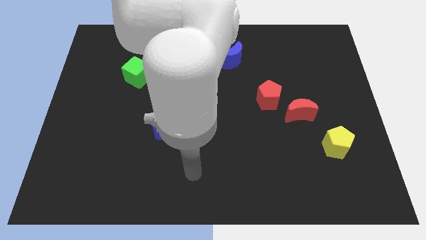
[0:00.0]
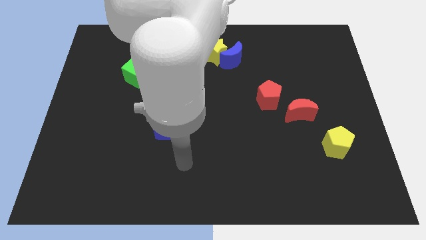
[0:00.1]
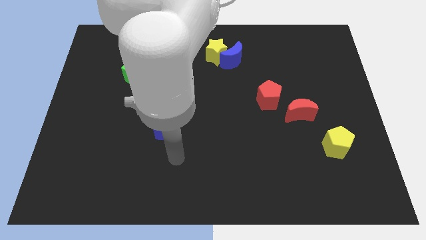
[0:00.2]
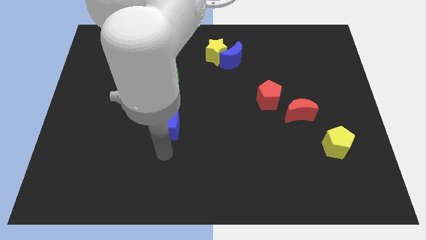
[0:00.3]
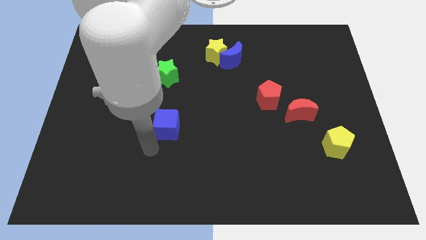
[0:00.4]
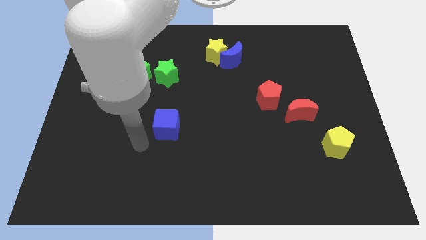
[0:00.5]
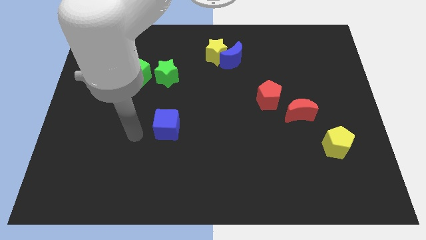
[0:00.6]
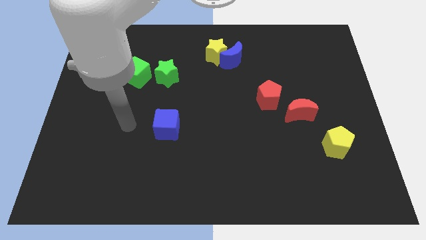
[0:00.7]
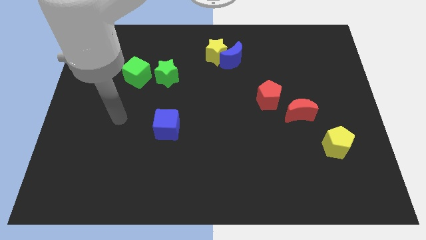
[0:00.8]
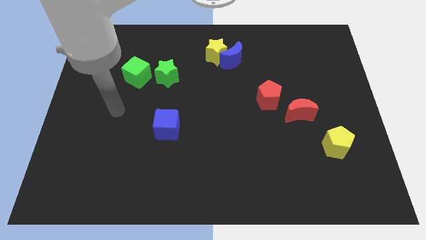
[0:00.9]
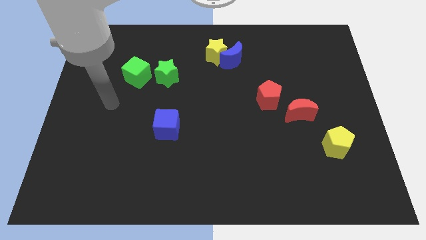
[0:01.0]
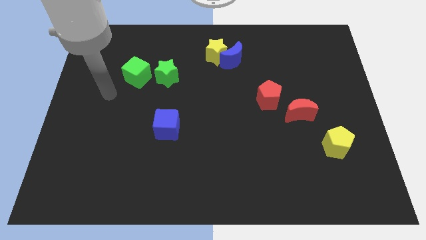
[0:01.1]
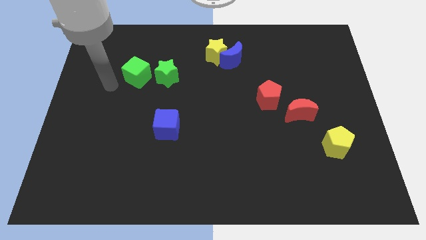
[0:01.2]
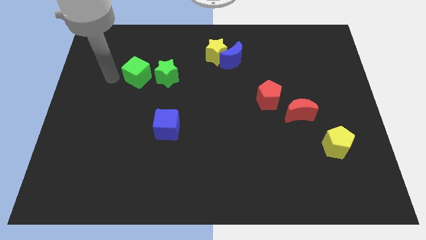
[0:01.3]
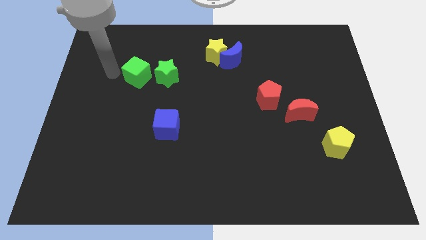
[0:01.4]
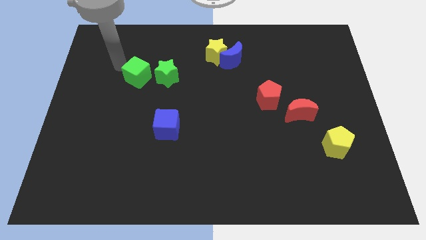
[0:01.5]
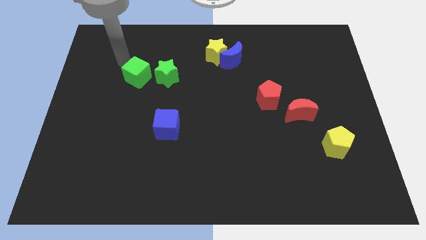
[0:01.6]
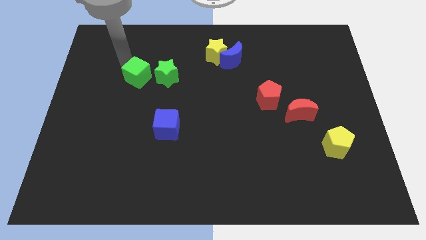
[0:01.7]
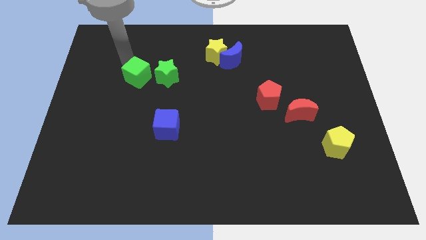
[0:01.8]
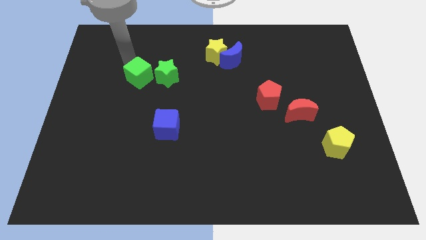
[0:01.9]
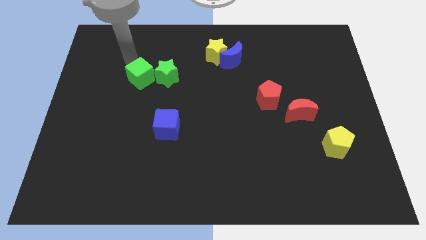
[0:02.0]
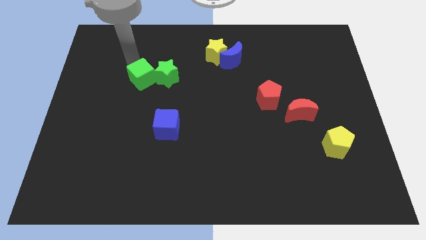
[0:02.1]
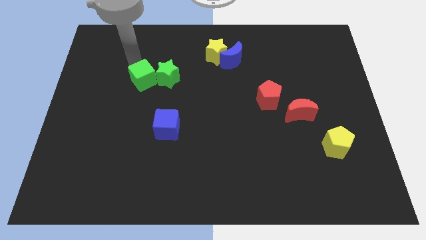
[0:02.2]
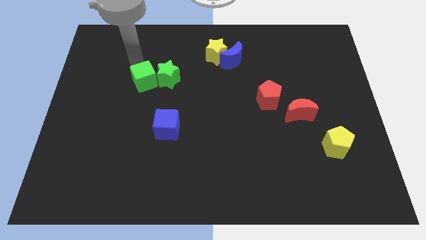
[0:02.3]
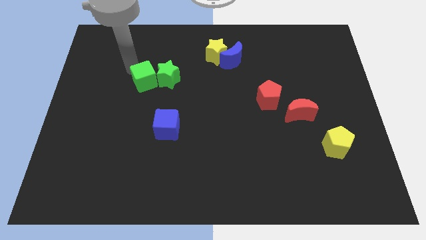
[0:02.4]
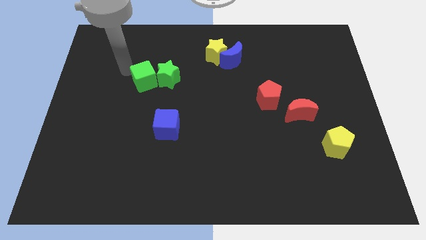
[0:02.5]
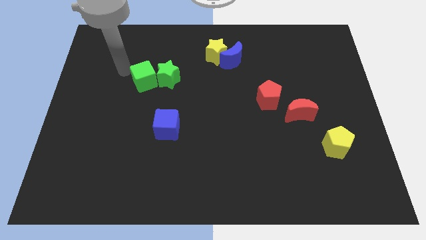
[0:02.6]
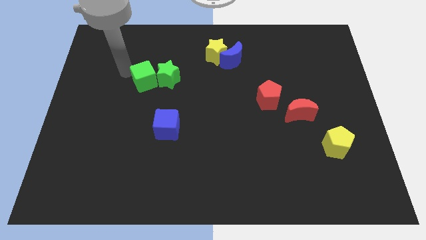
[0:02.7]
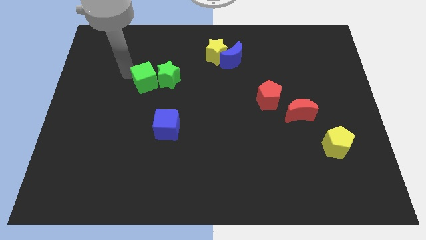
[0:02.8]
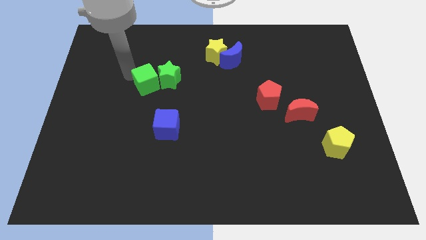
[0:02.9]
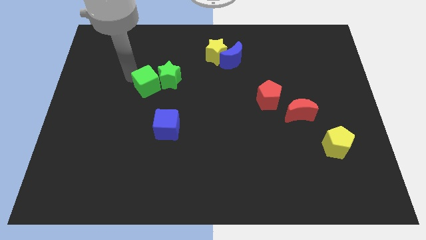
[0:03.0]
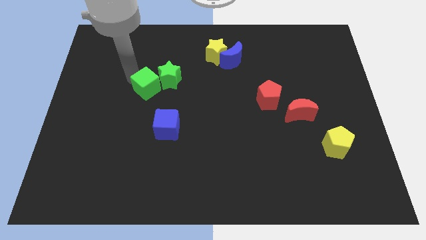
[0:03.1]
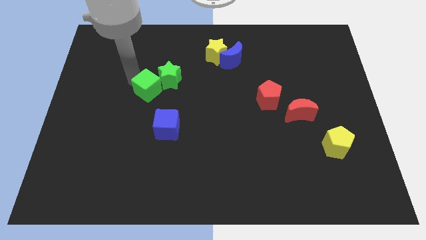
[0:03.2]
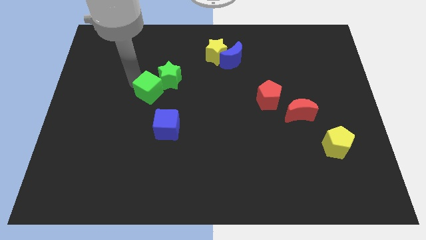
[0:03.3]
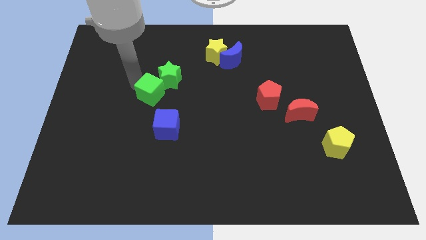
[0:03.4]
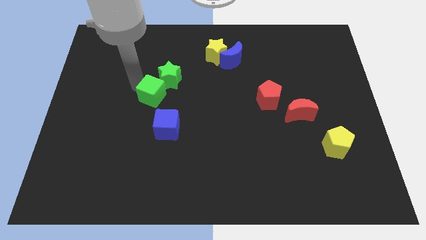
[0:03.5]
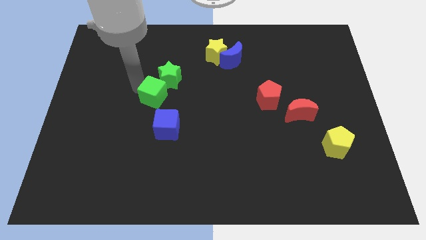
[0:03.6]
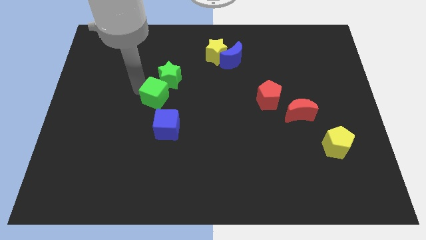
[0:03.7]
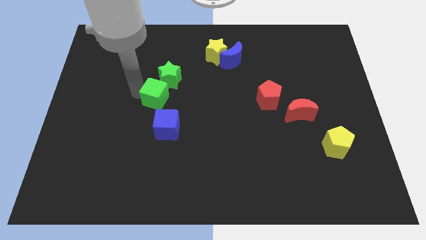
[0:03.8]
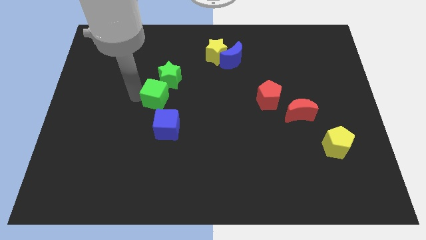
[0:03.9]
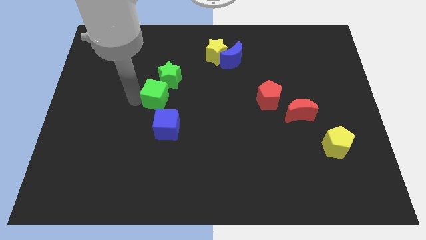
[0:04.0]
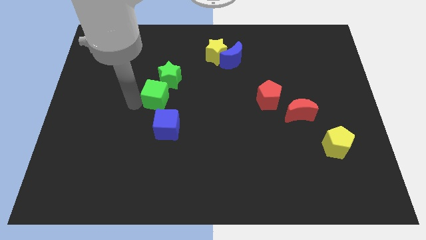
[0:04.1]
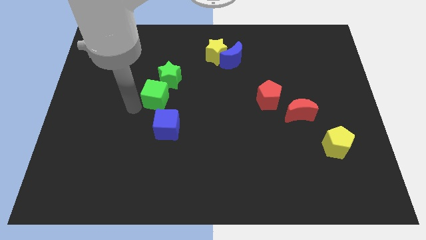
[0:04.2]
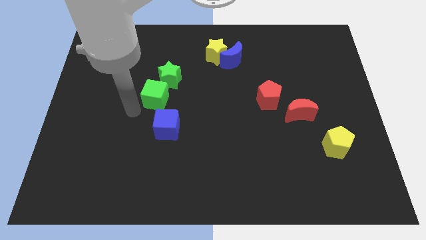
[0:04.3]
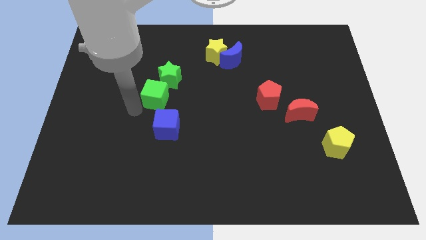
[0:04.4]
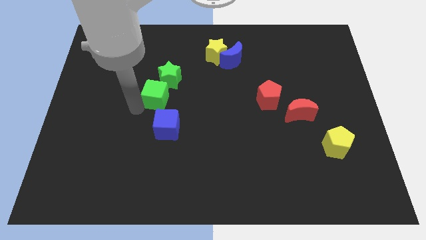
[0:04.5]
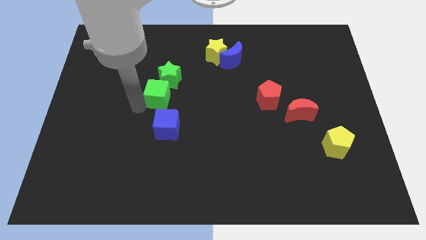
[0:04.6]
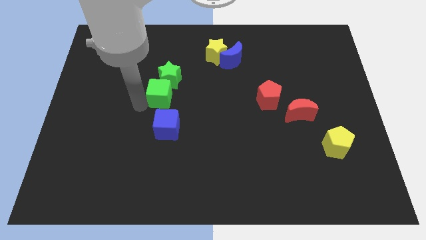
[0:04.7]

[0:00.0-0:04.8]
slide the green cube to the center of the board

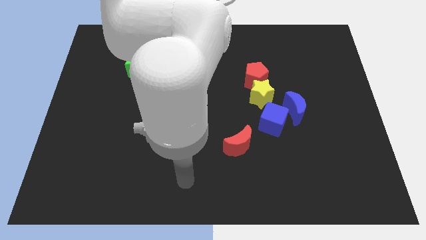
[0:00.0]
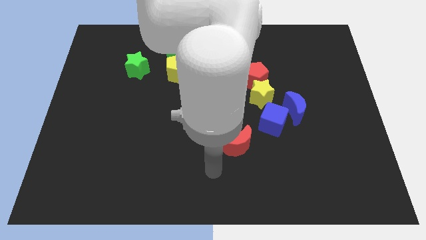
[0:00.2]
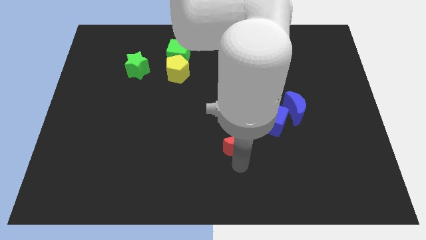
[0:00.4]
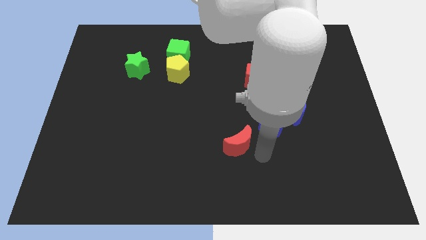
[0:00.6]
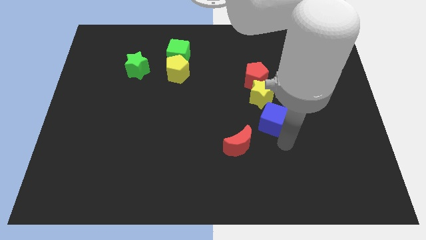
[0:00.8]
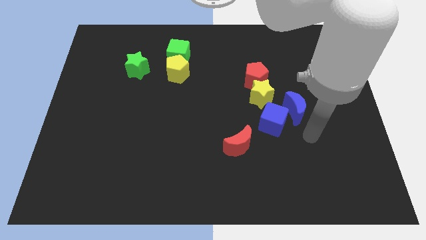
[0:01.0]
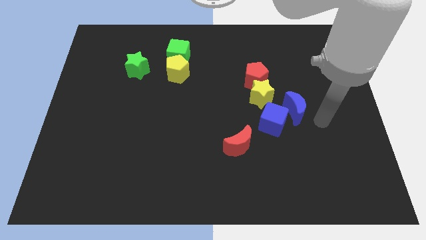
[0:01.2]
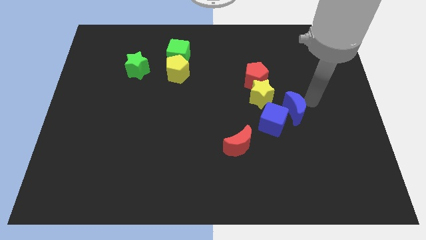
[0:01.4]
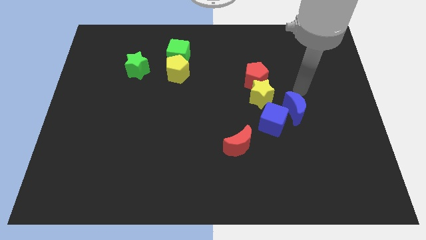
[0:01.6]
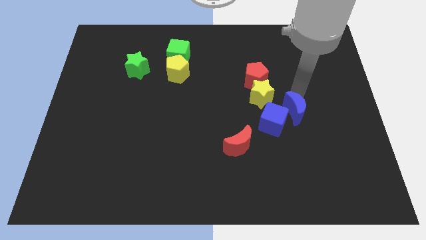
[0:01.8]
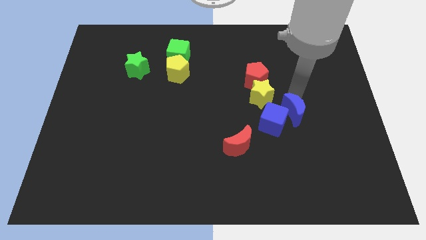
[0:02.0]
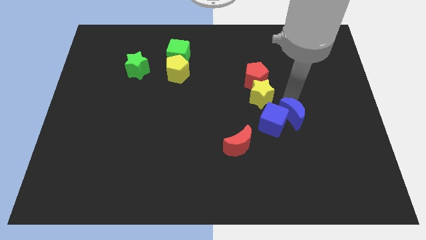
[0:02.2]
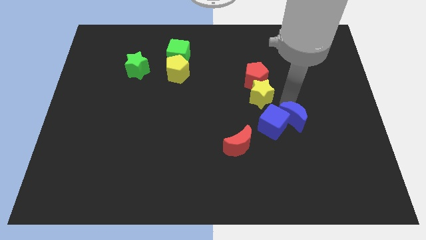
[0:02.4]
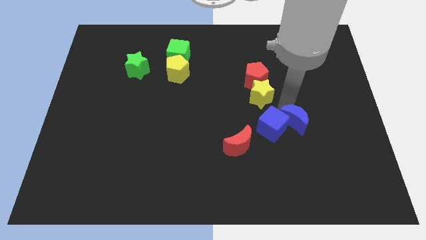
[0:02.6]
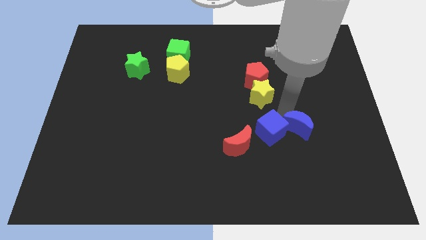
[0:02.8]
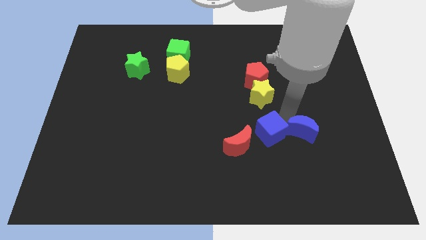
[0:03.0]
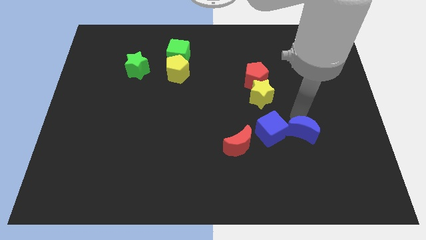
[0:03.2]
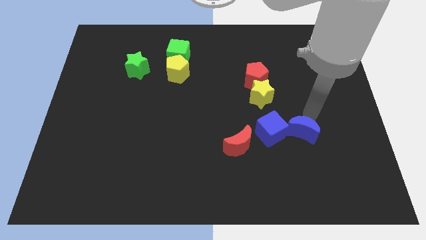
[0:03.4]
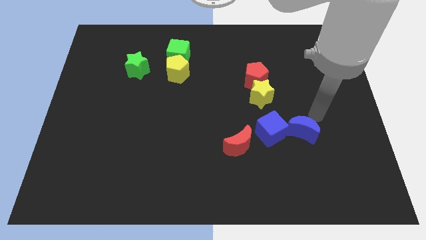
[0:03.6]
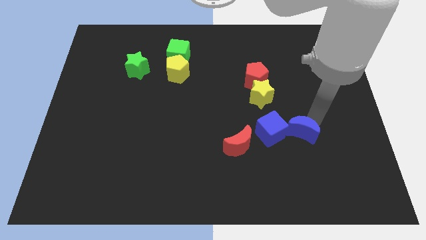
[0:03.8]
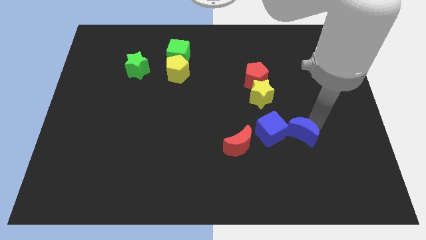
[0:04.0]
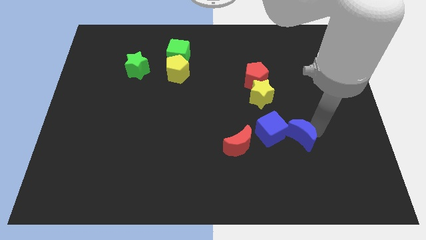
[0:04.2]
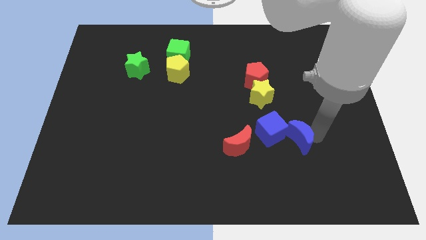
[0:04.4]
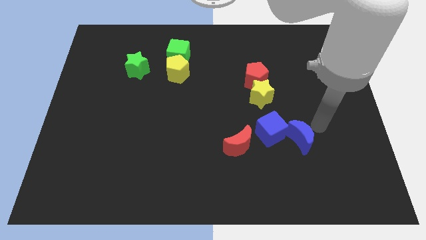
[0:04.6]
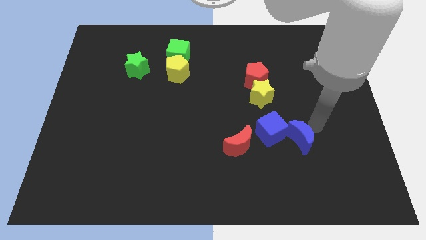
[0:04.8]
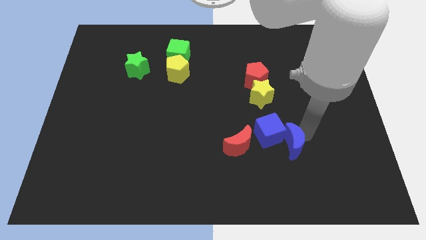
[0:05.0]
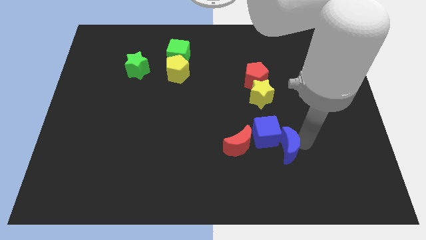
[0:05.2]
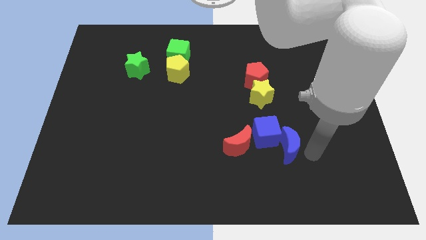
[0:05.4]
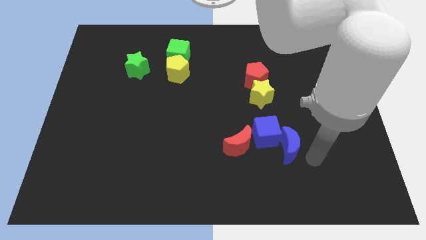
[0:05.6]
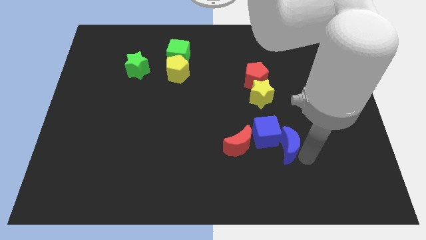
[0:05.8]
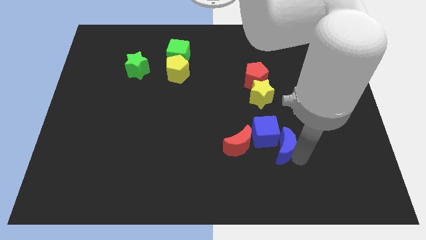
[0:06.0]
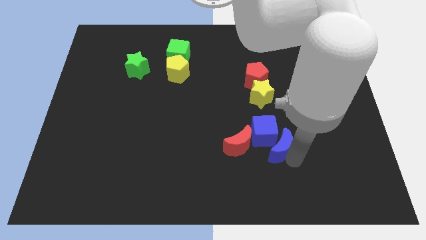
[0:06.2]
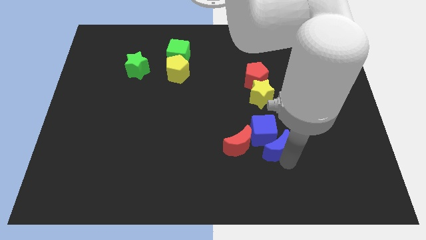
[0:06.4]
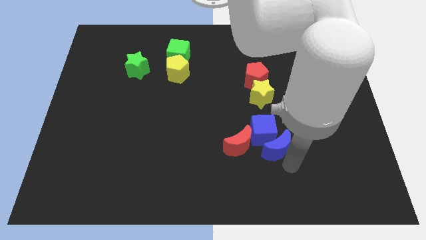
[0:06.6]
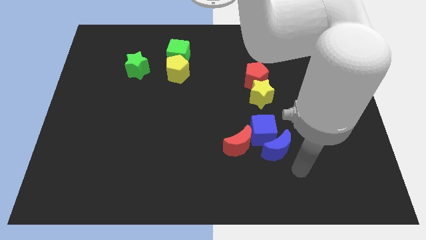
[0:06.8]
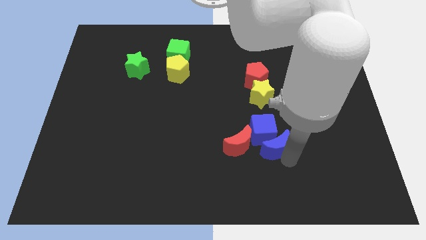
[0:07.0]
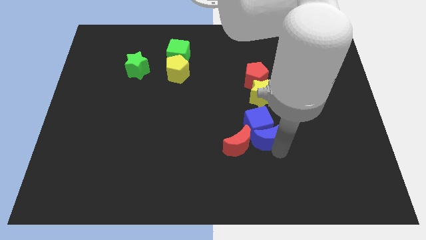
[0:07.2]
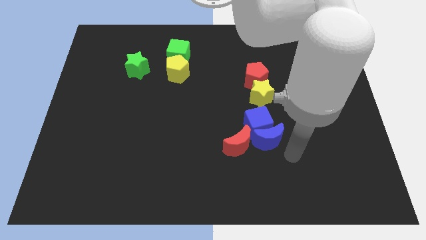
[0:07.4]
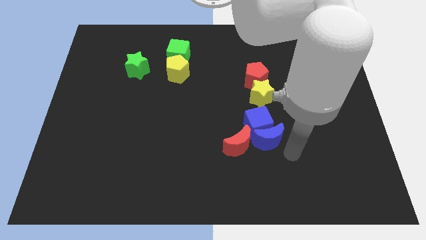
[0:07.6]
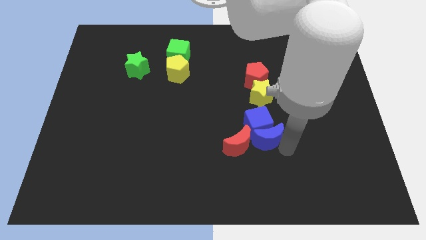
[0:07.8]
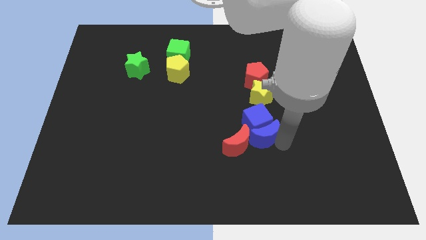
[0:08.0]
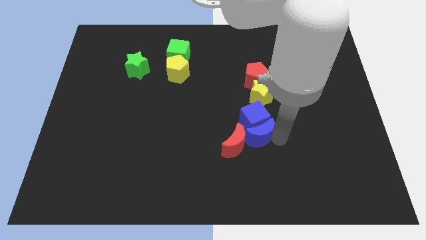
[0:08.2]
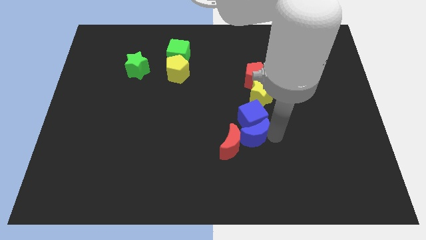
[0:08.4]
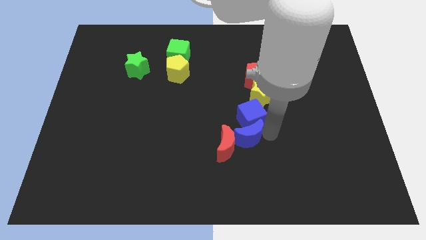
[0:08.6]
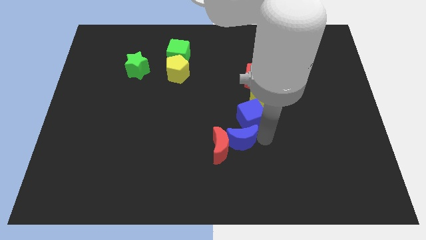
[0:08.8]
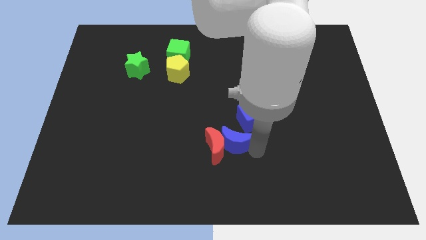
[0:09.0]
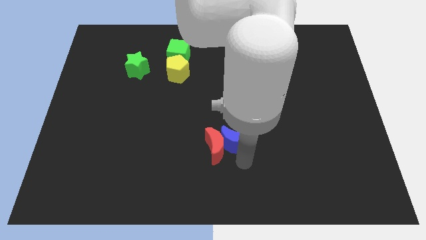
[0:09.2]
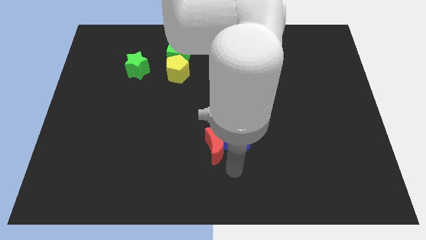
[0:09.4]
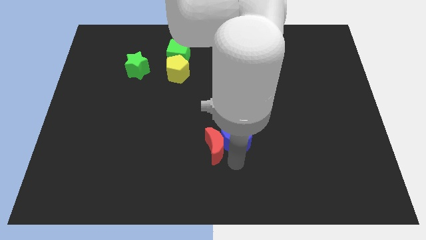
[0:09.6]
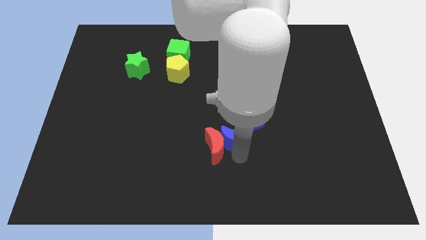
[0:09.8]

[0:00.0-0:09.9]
push the blue moon to the center of the board
